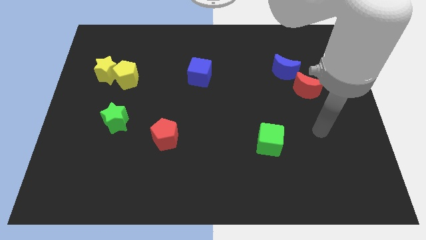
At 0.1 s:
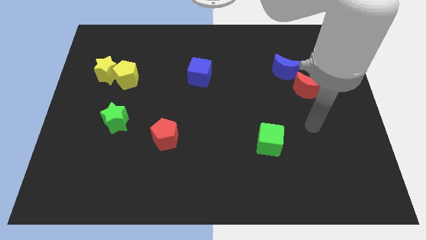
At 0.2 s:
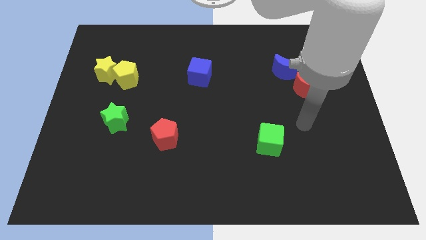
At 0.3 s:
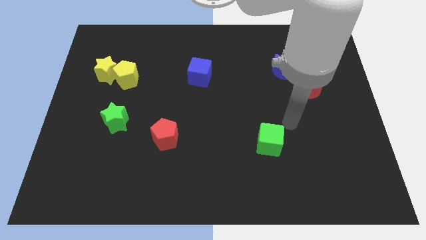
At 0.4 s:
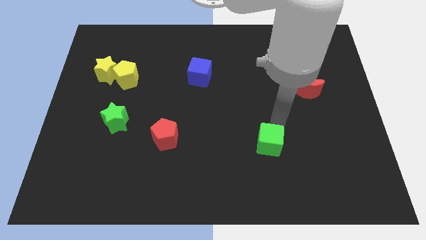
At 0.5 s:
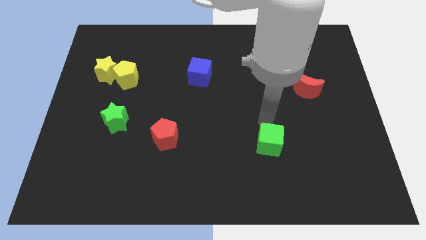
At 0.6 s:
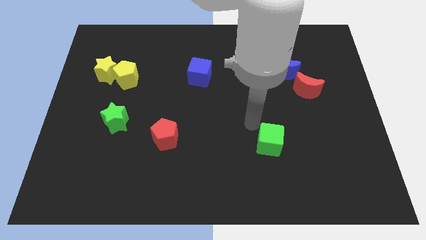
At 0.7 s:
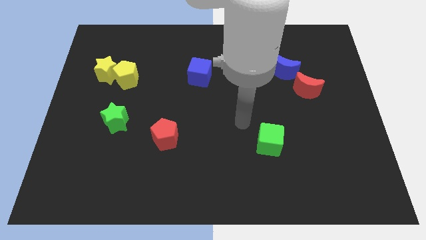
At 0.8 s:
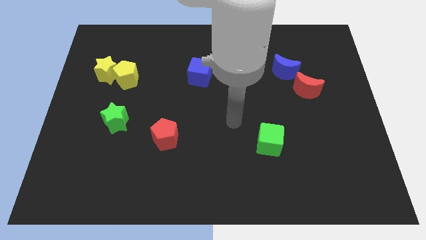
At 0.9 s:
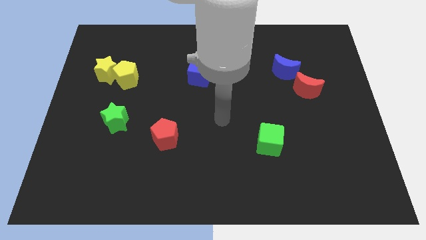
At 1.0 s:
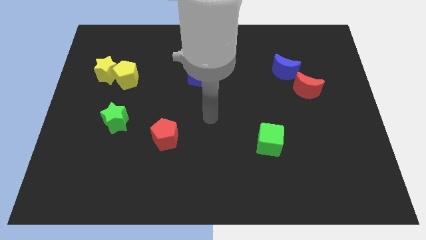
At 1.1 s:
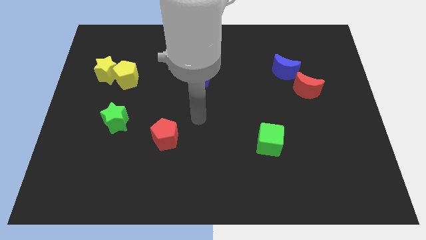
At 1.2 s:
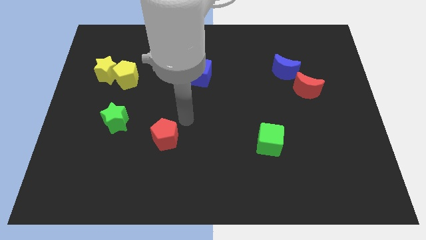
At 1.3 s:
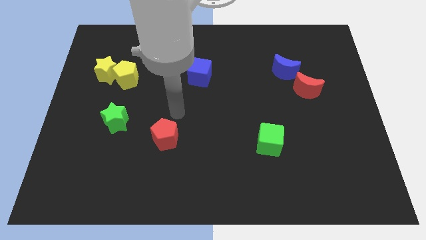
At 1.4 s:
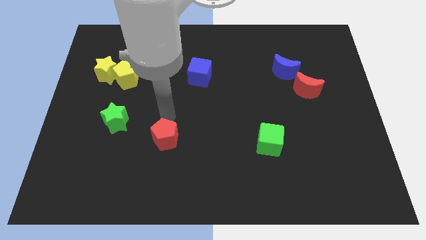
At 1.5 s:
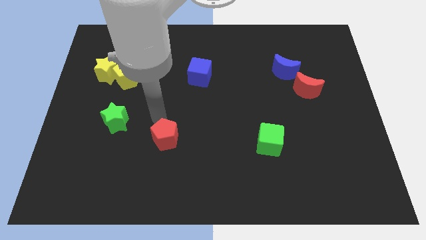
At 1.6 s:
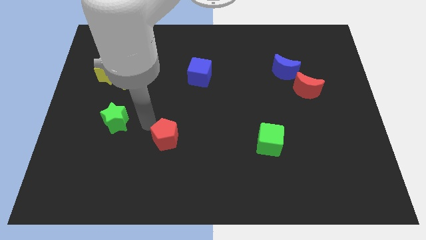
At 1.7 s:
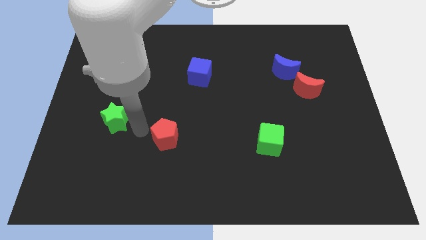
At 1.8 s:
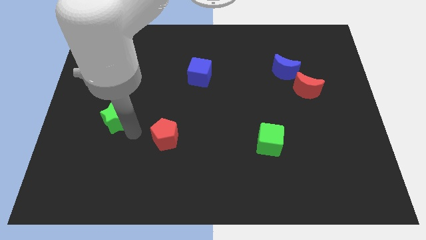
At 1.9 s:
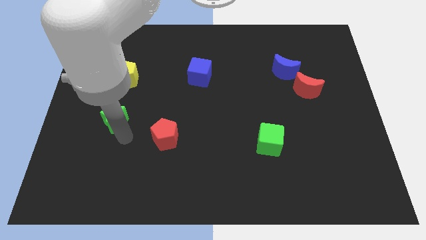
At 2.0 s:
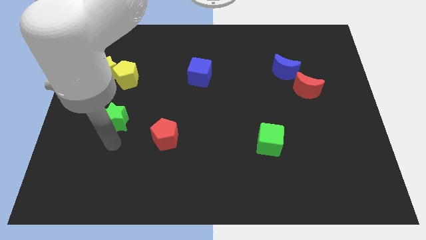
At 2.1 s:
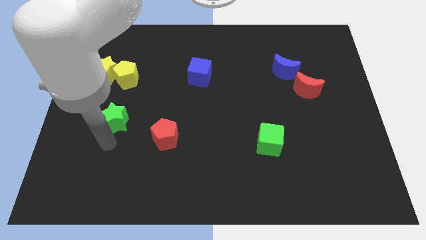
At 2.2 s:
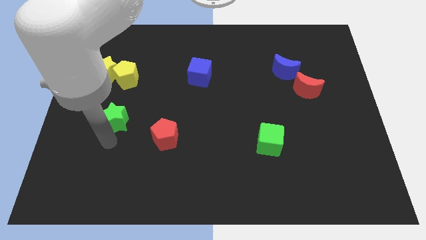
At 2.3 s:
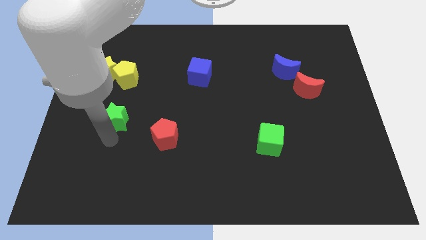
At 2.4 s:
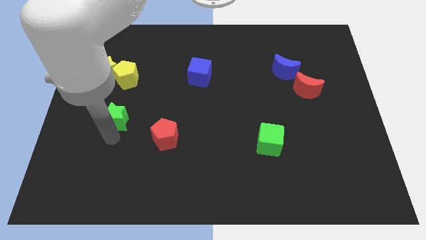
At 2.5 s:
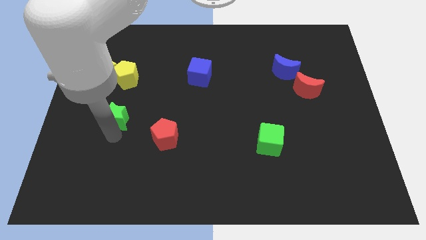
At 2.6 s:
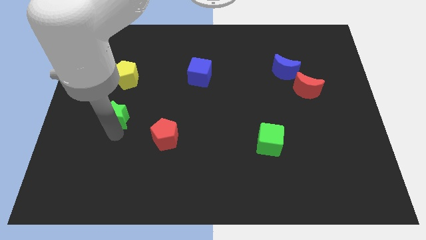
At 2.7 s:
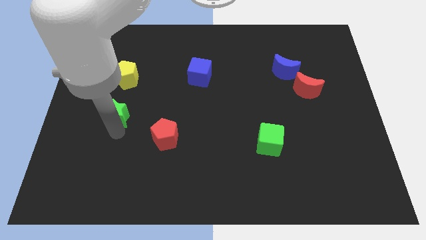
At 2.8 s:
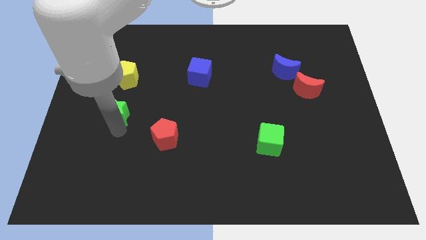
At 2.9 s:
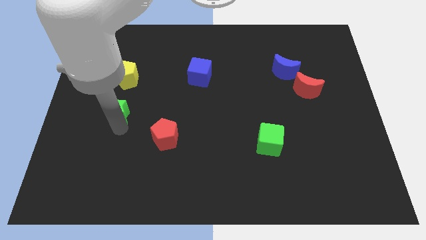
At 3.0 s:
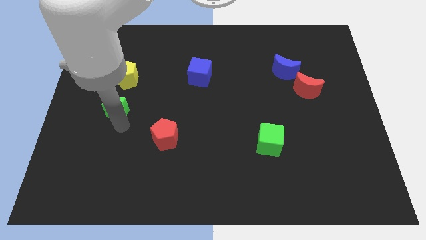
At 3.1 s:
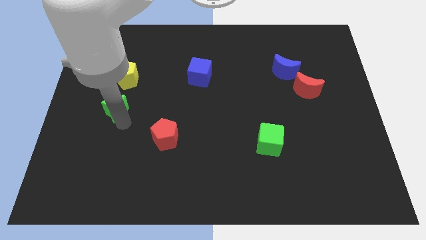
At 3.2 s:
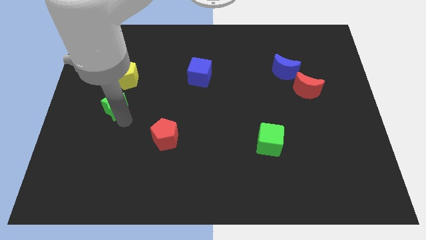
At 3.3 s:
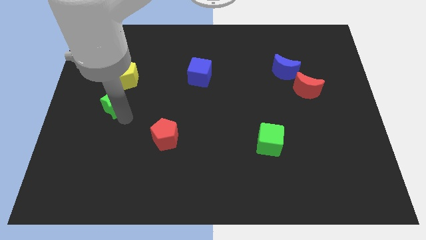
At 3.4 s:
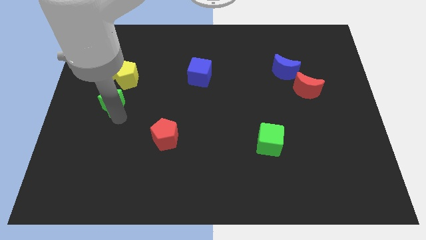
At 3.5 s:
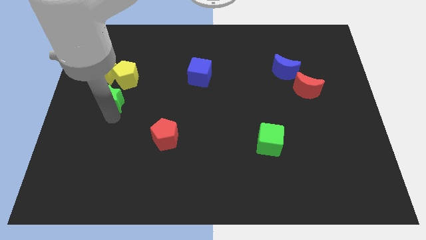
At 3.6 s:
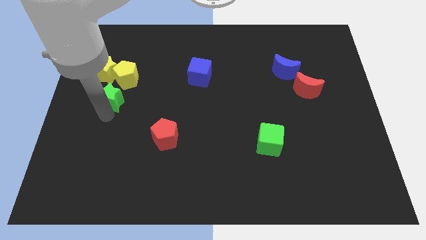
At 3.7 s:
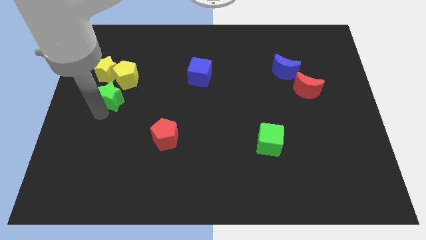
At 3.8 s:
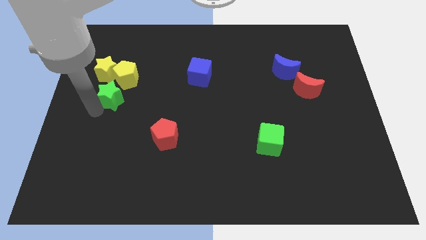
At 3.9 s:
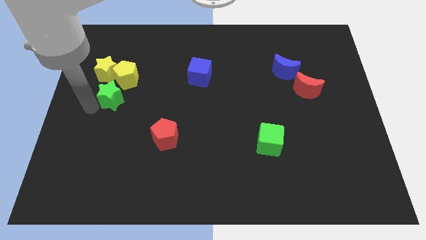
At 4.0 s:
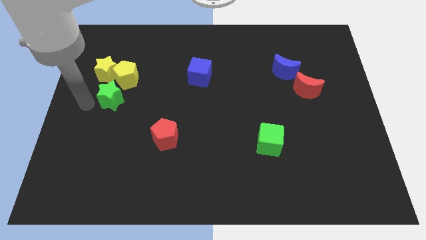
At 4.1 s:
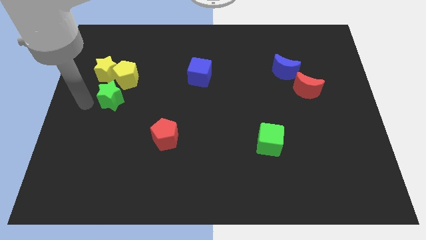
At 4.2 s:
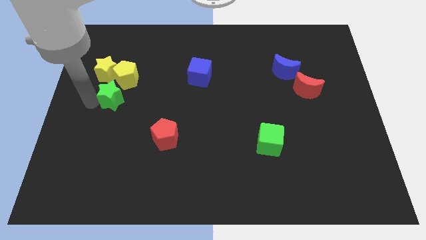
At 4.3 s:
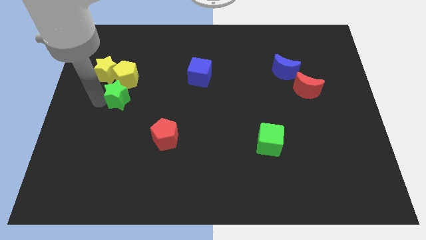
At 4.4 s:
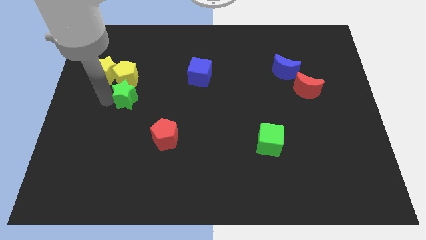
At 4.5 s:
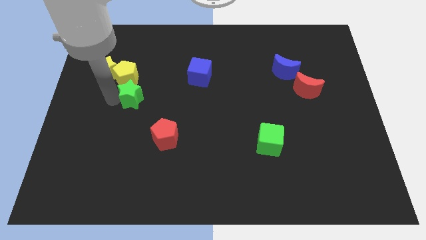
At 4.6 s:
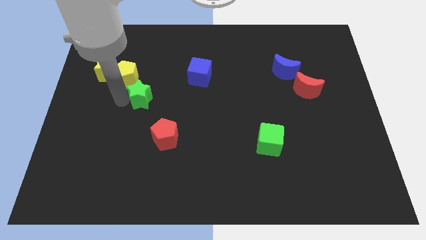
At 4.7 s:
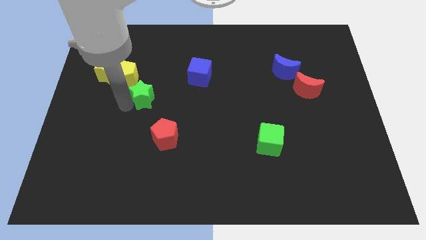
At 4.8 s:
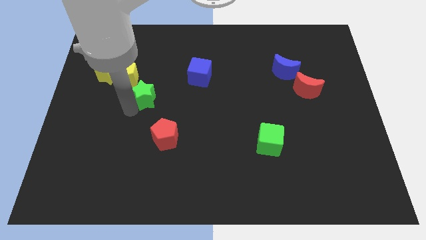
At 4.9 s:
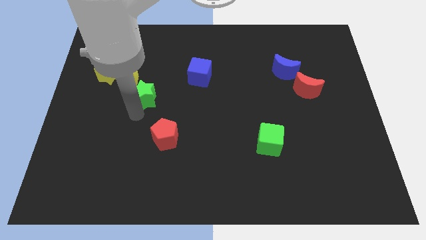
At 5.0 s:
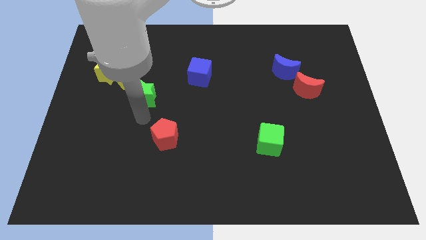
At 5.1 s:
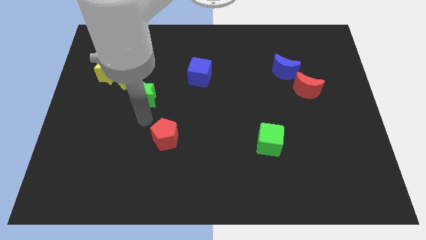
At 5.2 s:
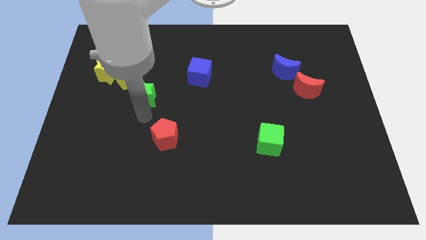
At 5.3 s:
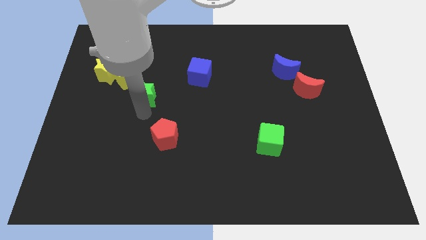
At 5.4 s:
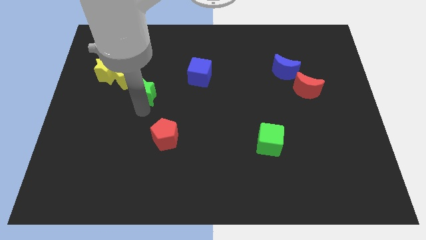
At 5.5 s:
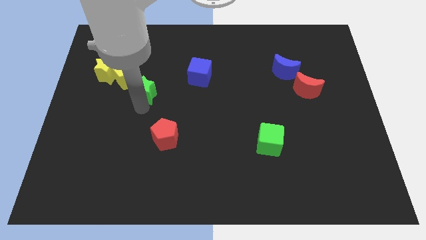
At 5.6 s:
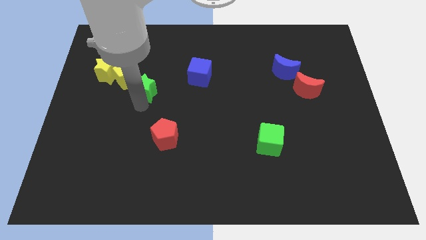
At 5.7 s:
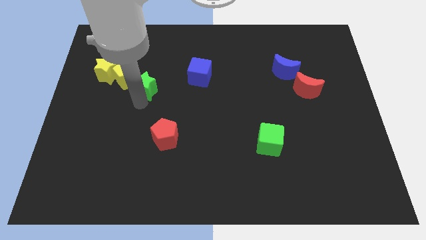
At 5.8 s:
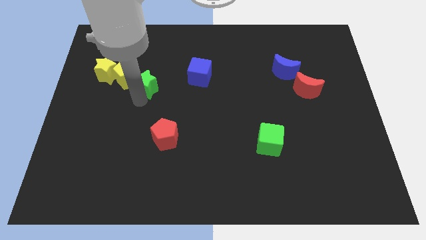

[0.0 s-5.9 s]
put the green star to the right of the yellow star
